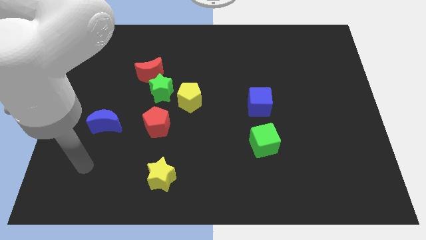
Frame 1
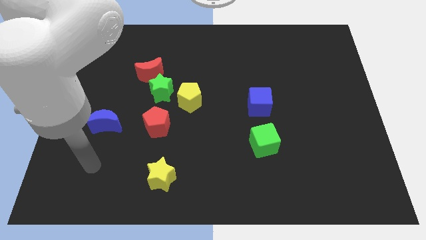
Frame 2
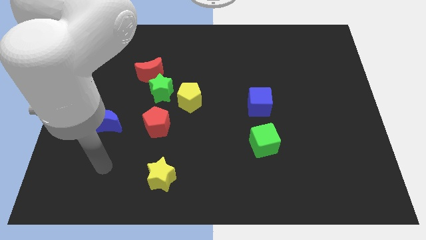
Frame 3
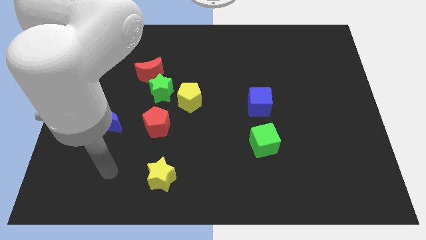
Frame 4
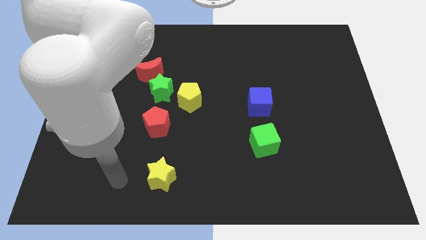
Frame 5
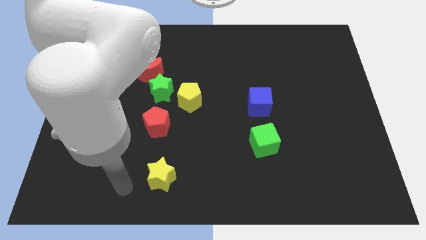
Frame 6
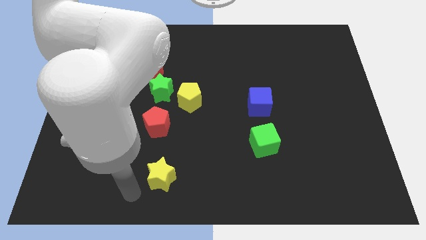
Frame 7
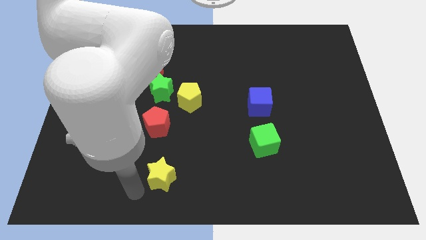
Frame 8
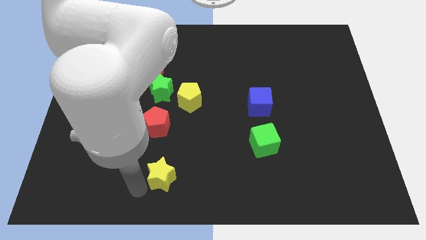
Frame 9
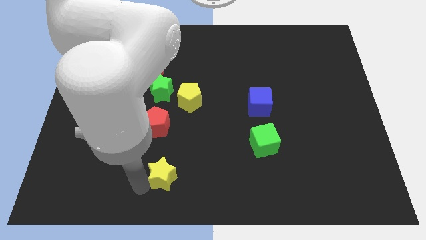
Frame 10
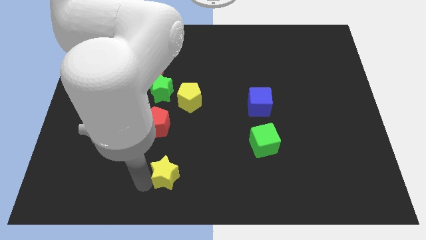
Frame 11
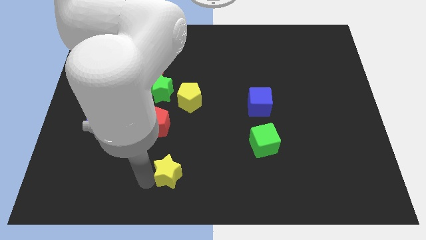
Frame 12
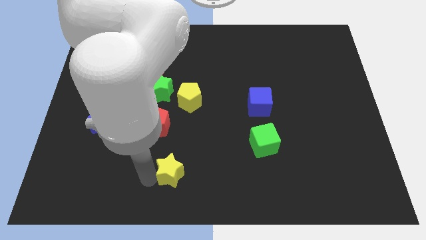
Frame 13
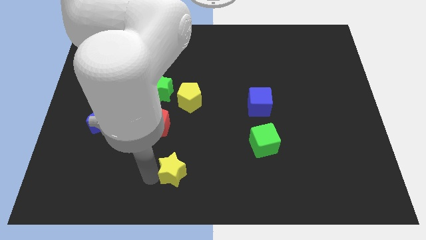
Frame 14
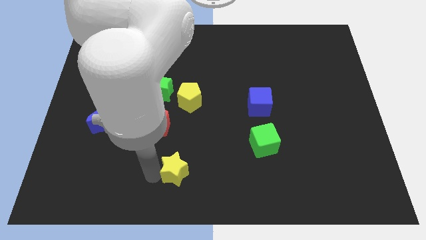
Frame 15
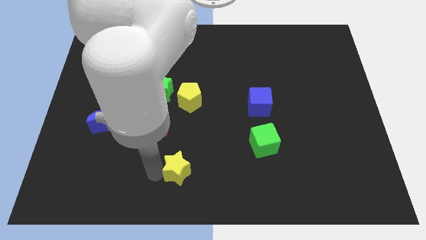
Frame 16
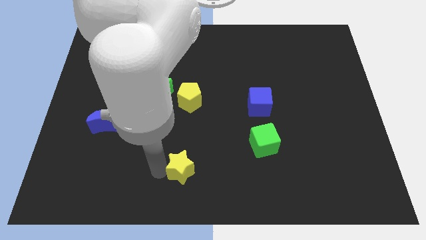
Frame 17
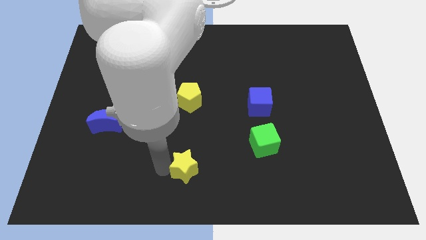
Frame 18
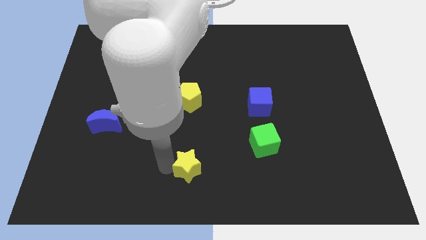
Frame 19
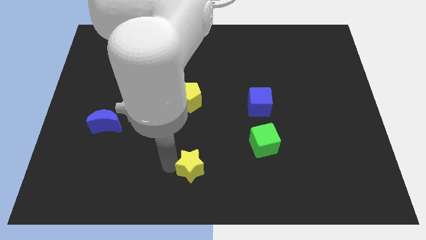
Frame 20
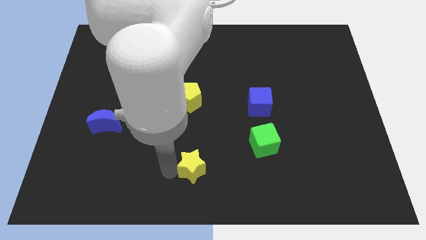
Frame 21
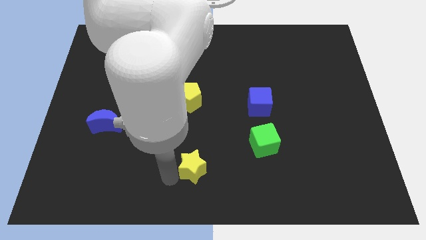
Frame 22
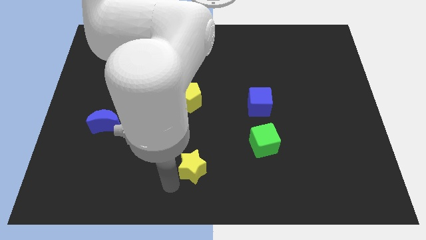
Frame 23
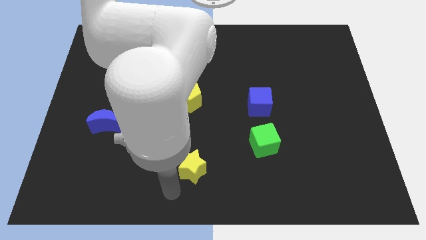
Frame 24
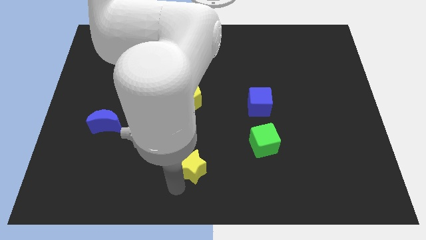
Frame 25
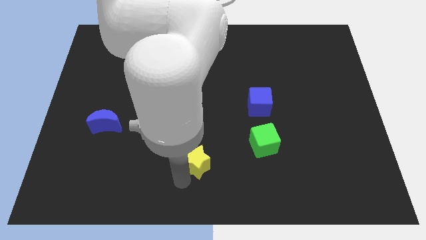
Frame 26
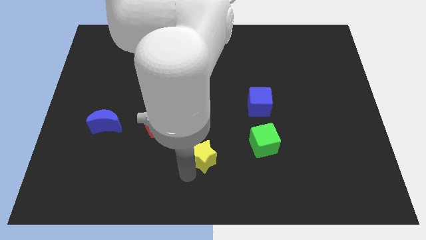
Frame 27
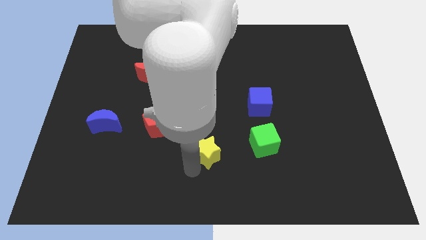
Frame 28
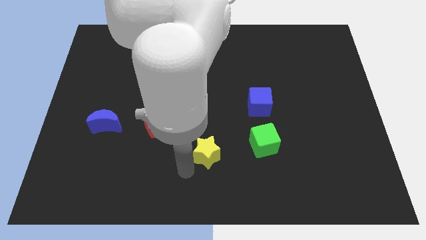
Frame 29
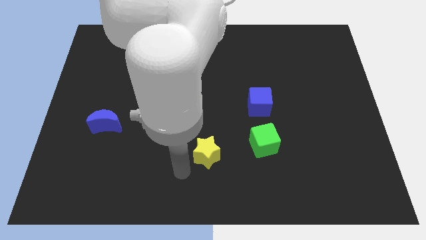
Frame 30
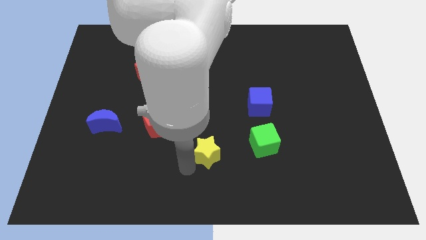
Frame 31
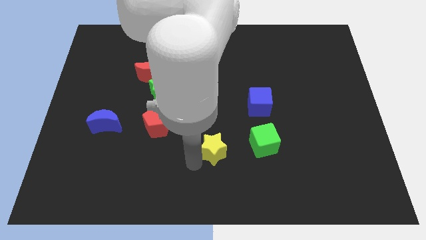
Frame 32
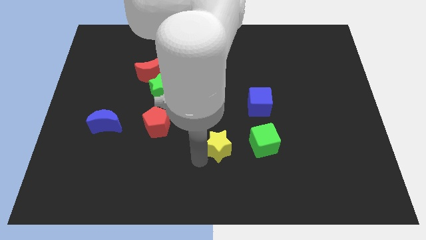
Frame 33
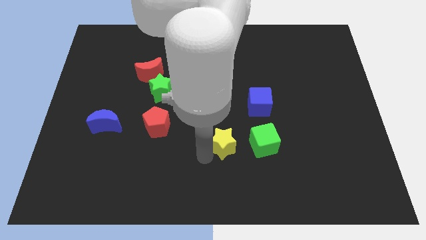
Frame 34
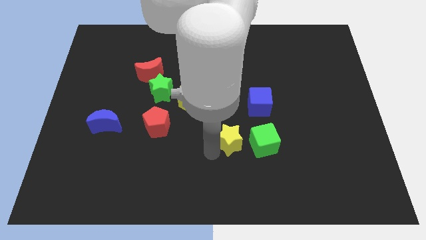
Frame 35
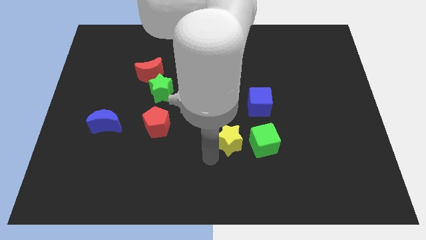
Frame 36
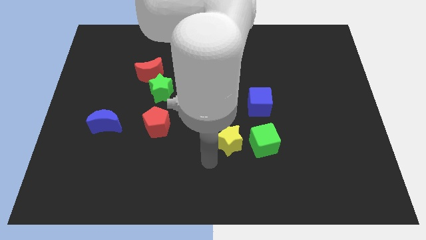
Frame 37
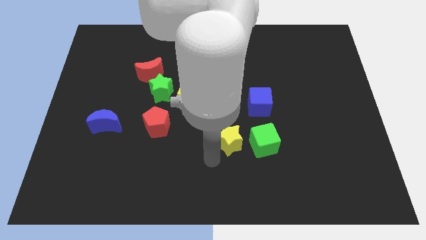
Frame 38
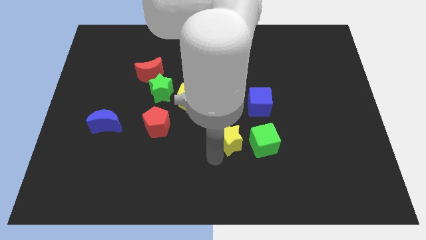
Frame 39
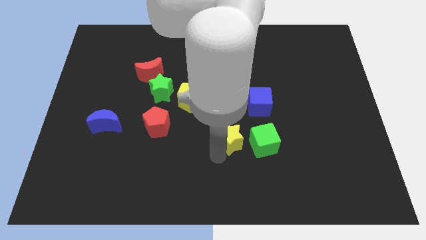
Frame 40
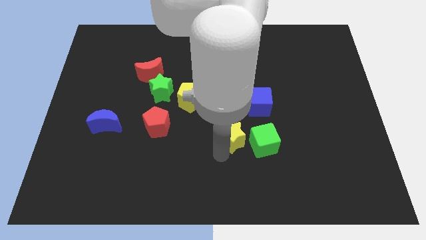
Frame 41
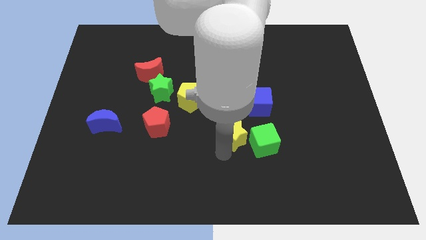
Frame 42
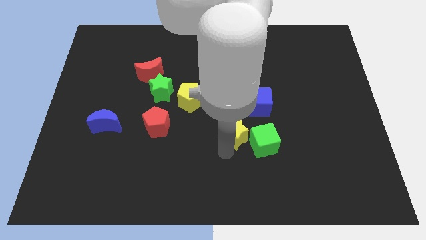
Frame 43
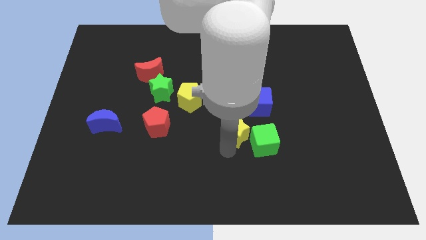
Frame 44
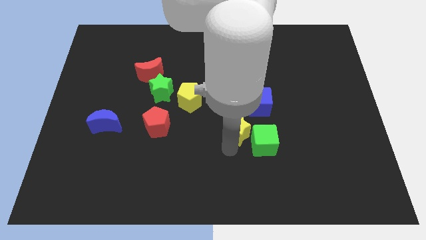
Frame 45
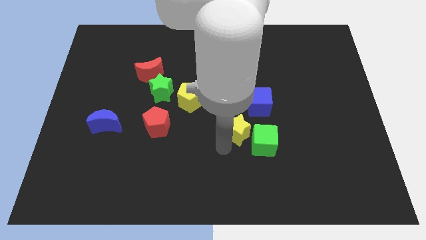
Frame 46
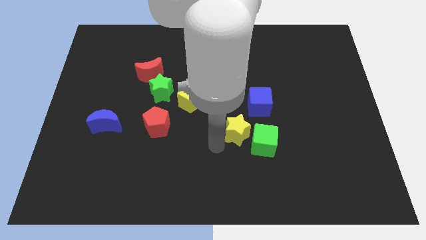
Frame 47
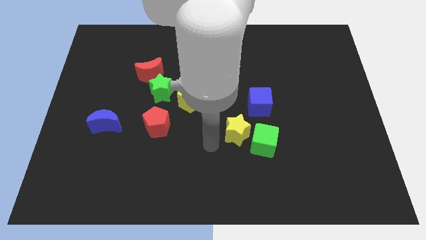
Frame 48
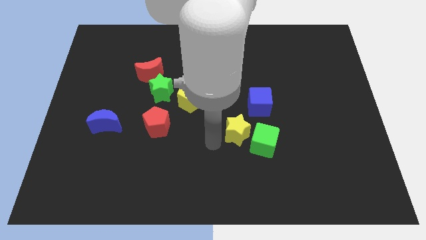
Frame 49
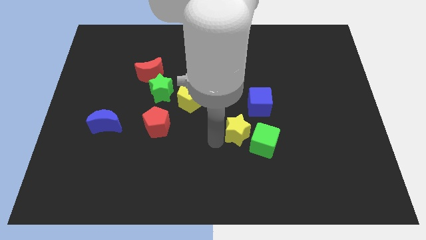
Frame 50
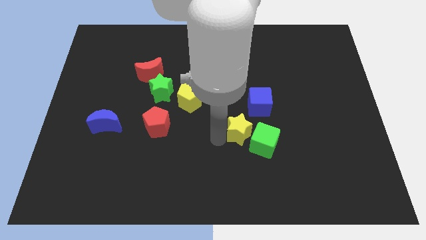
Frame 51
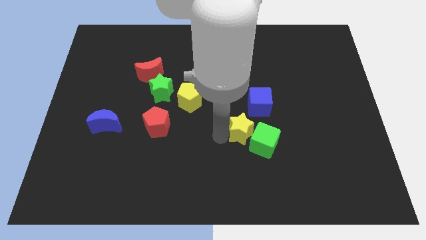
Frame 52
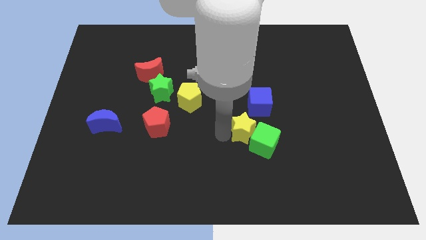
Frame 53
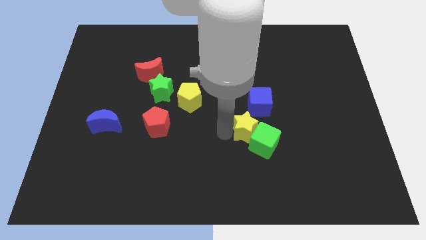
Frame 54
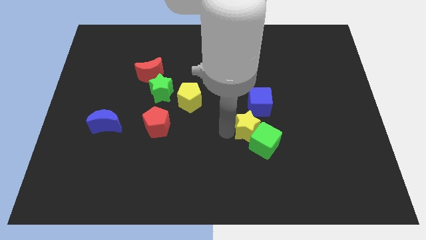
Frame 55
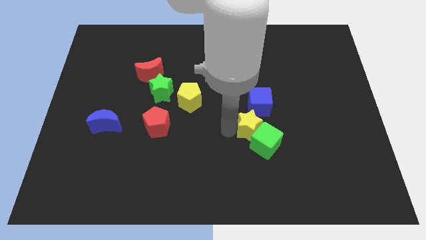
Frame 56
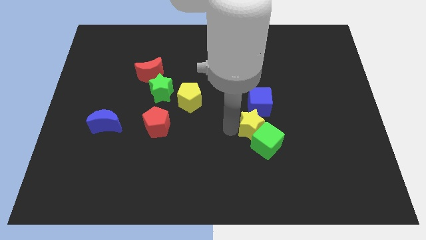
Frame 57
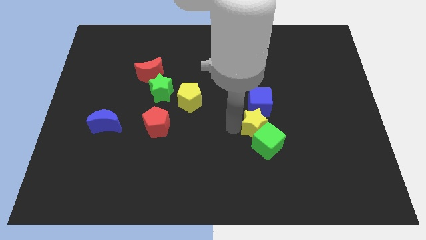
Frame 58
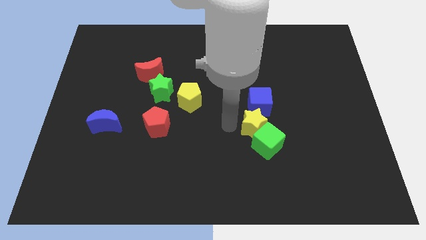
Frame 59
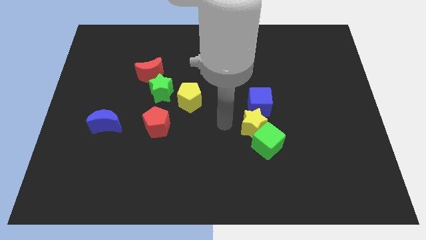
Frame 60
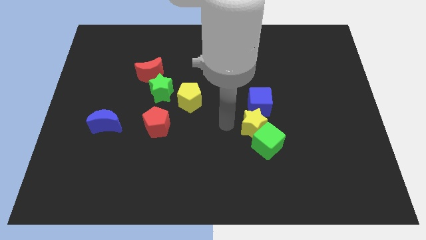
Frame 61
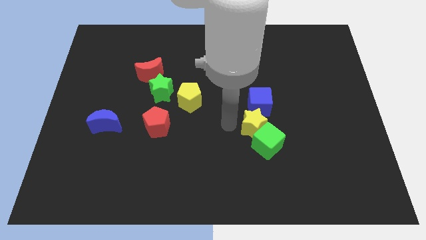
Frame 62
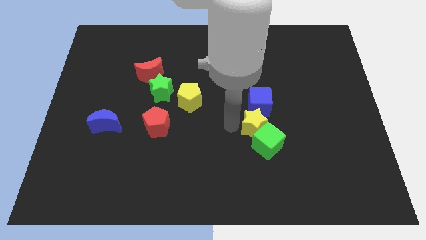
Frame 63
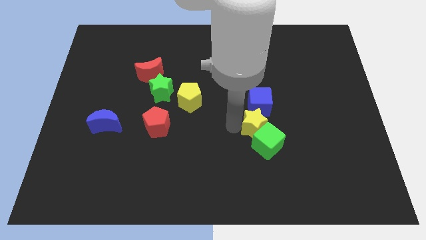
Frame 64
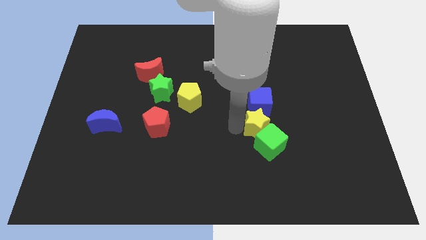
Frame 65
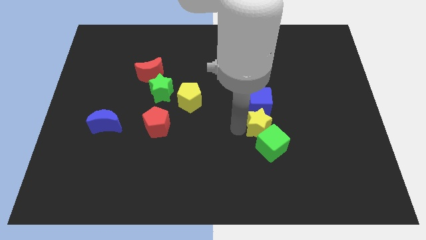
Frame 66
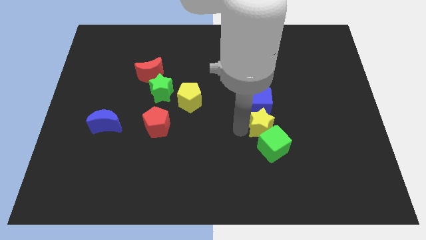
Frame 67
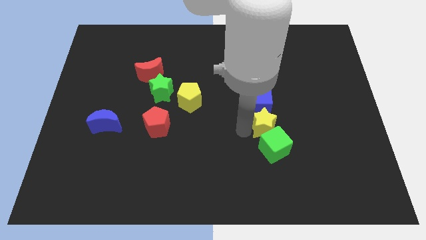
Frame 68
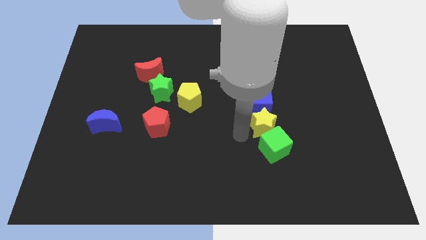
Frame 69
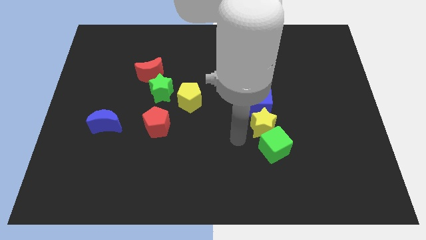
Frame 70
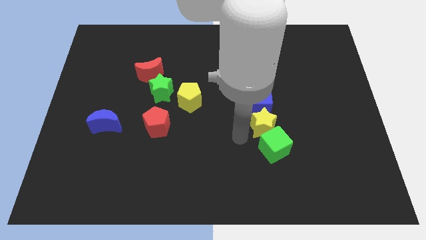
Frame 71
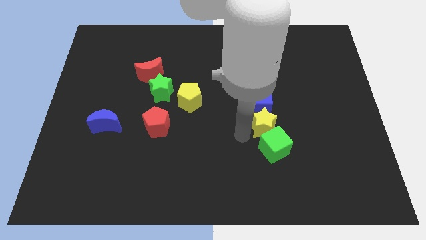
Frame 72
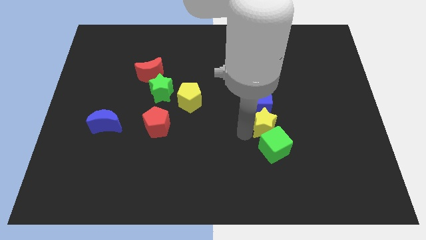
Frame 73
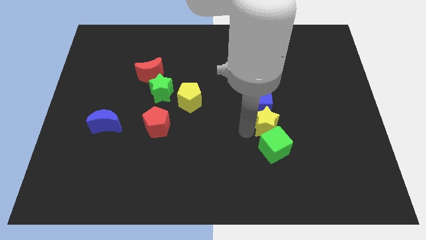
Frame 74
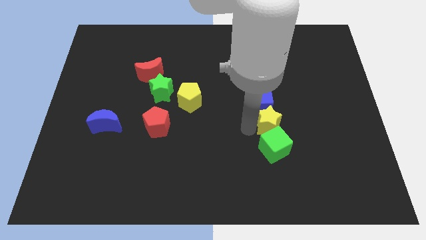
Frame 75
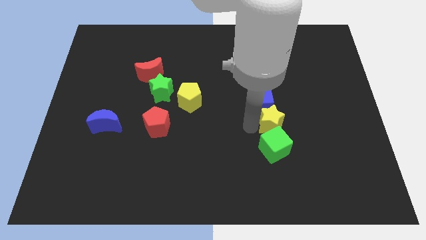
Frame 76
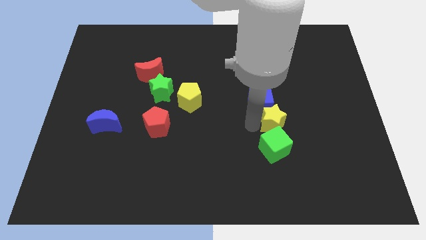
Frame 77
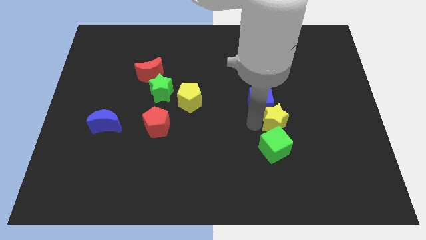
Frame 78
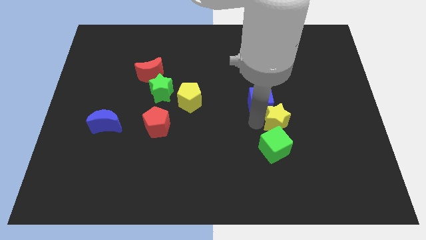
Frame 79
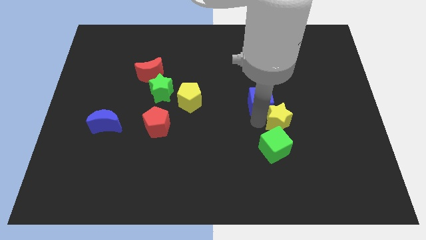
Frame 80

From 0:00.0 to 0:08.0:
move the yellow star just right of the blue cube
